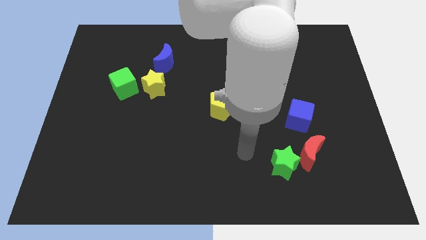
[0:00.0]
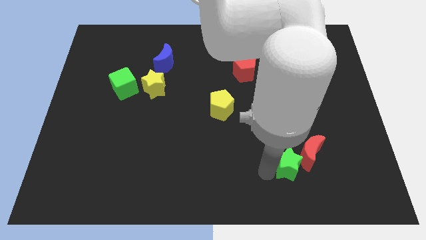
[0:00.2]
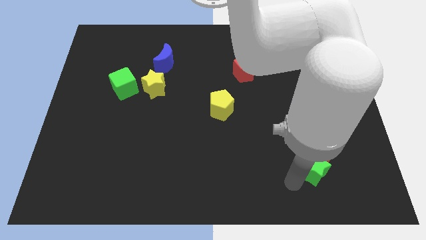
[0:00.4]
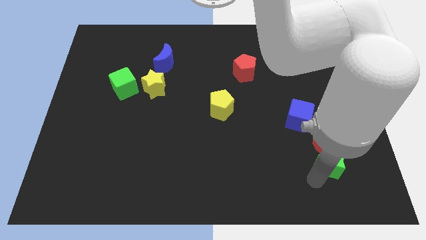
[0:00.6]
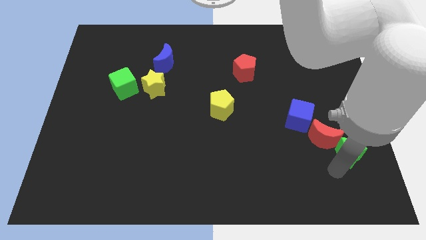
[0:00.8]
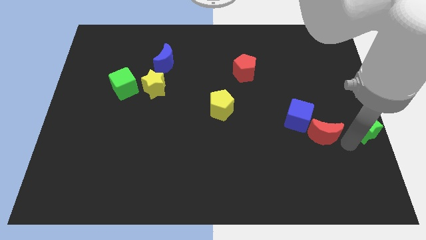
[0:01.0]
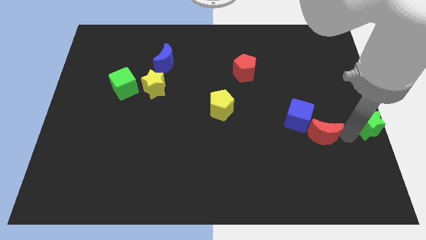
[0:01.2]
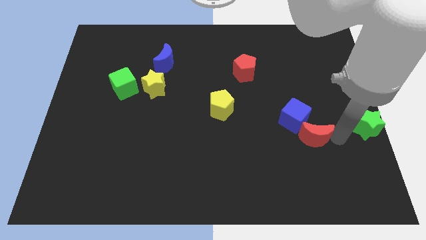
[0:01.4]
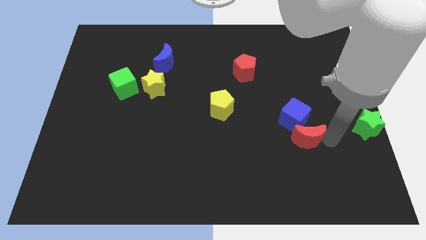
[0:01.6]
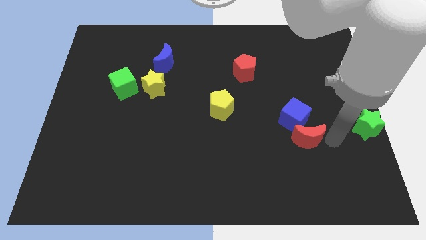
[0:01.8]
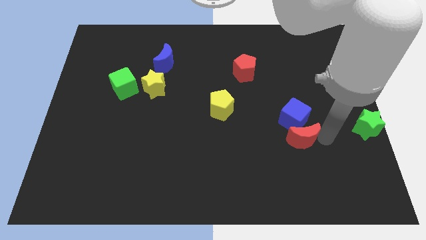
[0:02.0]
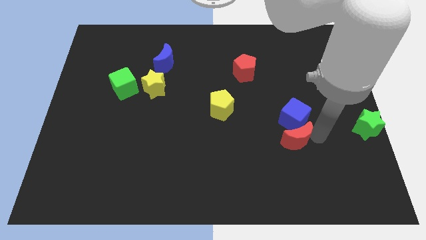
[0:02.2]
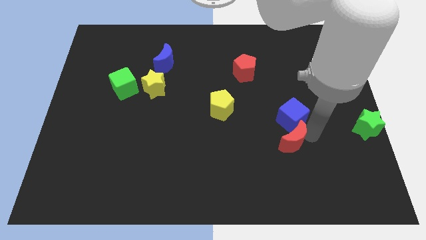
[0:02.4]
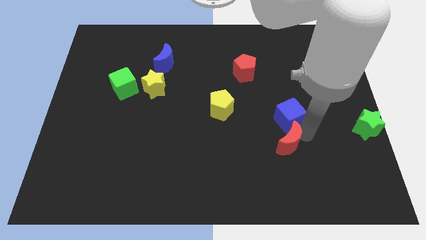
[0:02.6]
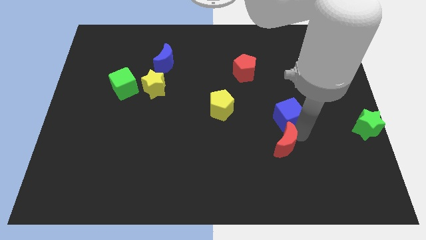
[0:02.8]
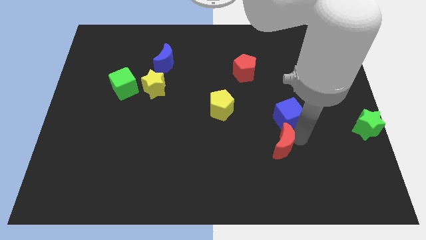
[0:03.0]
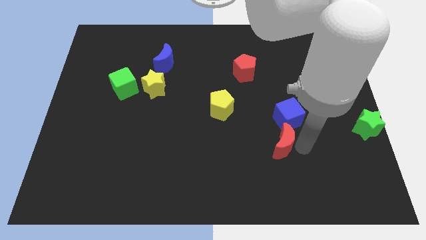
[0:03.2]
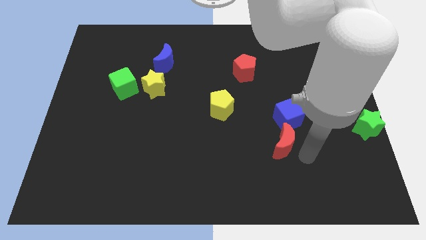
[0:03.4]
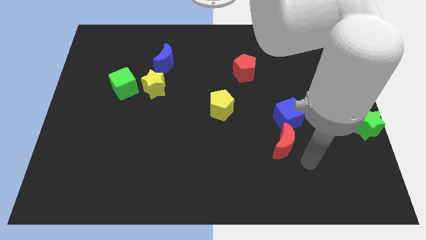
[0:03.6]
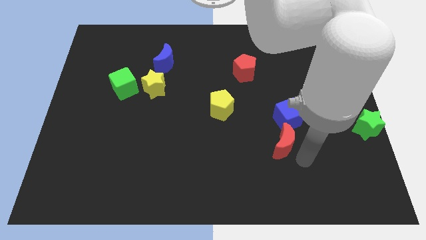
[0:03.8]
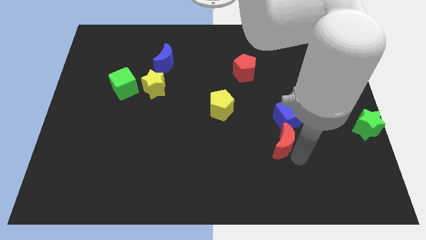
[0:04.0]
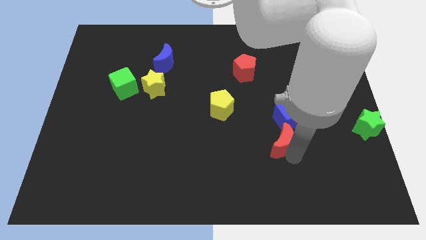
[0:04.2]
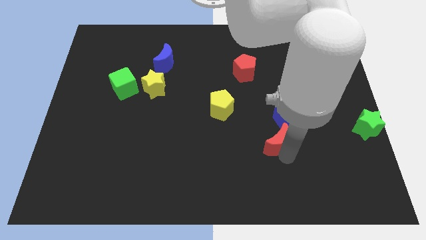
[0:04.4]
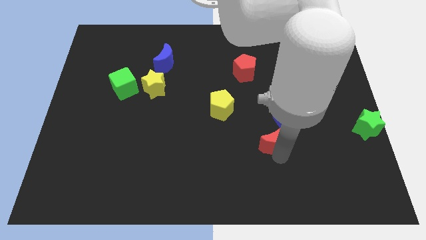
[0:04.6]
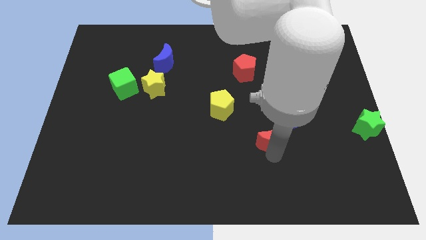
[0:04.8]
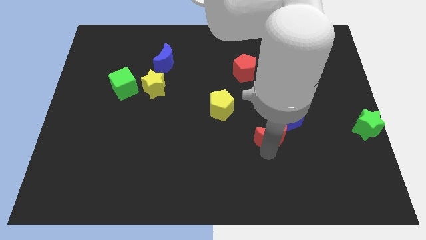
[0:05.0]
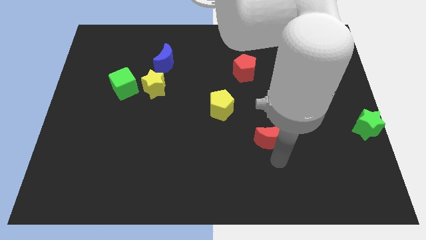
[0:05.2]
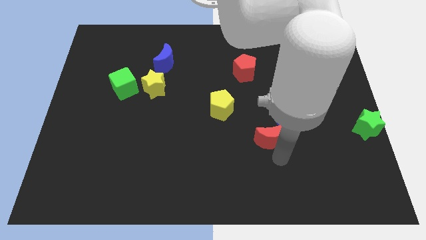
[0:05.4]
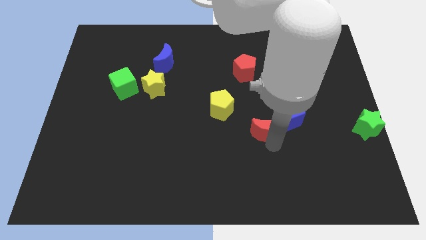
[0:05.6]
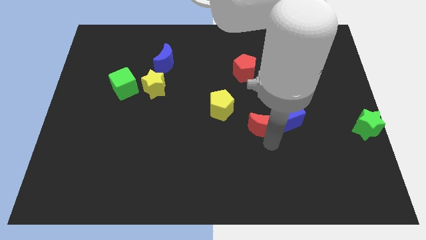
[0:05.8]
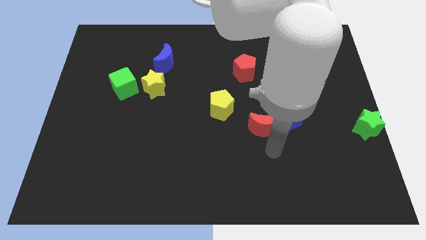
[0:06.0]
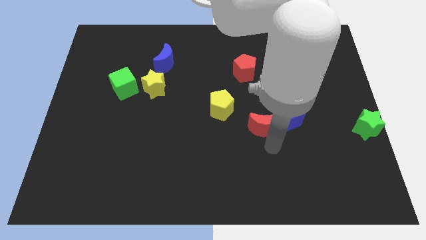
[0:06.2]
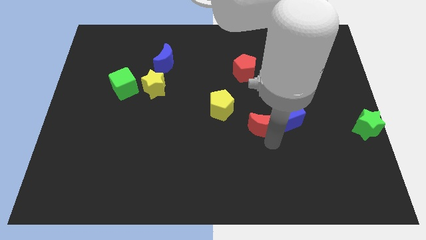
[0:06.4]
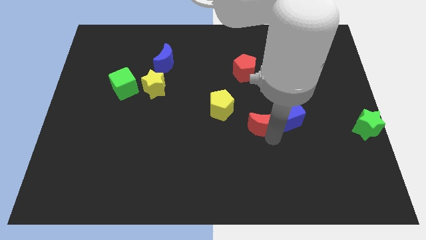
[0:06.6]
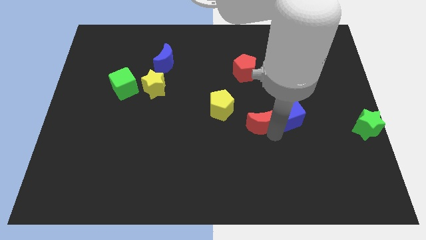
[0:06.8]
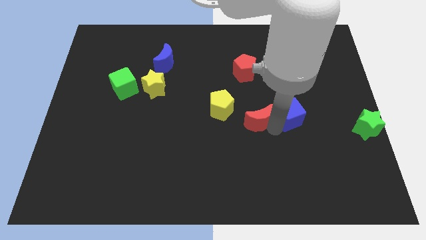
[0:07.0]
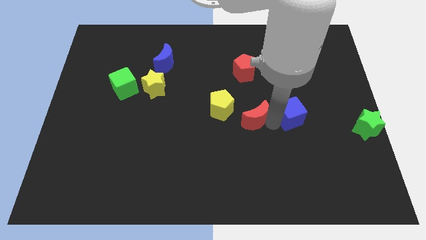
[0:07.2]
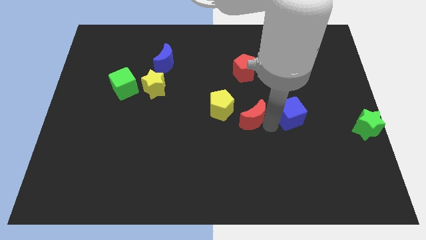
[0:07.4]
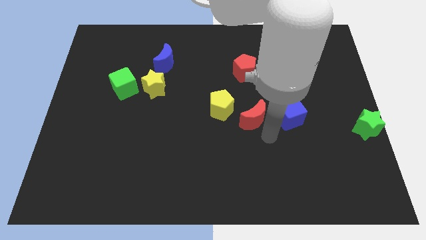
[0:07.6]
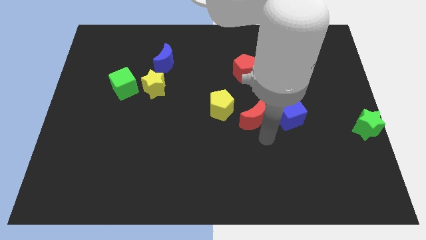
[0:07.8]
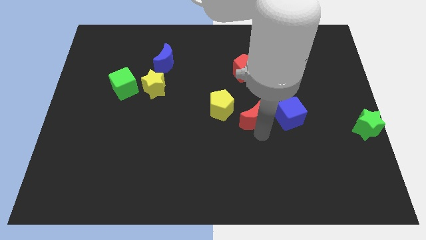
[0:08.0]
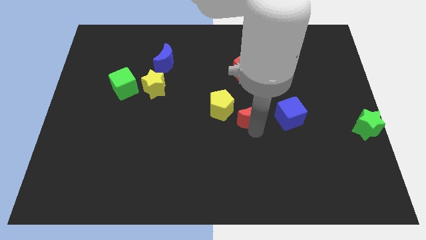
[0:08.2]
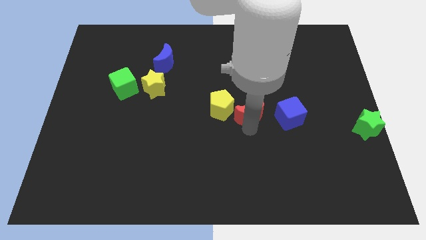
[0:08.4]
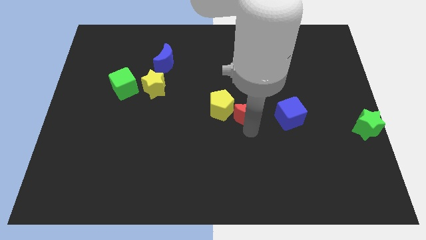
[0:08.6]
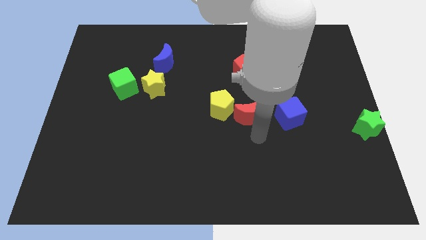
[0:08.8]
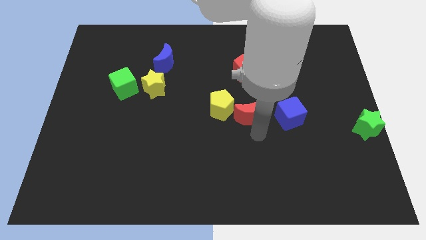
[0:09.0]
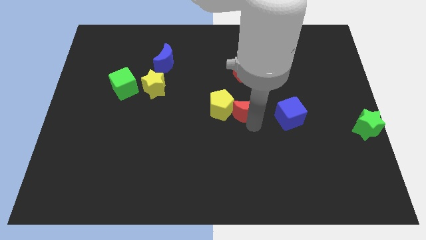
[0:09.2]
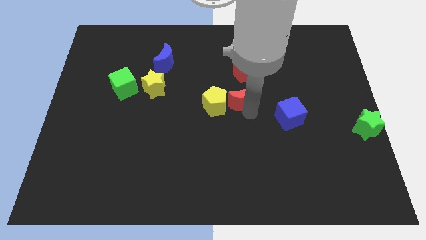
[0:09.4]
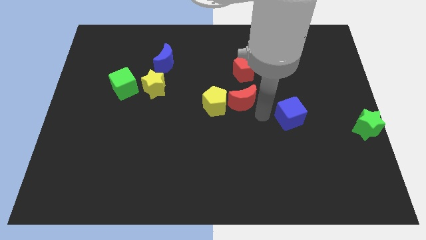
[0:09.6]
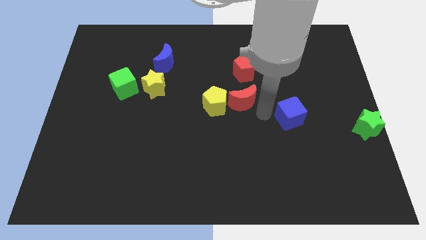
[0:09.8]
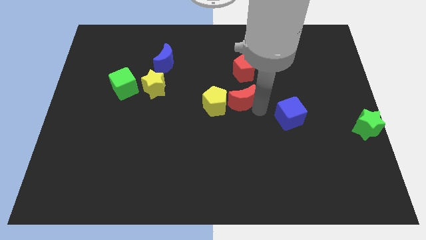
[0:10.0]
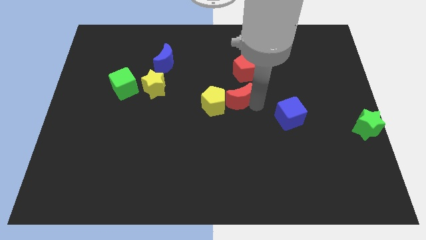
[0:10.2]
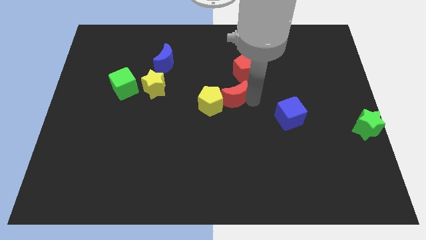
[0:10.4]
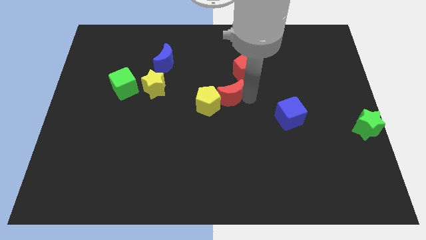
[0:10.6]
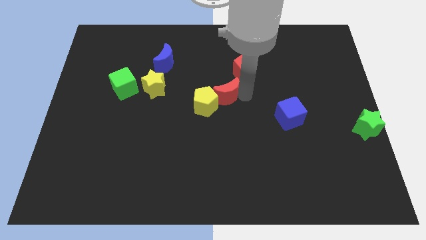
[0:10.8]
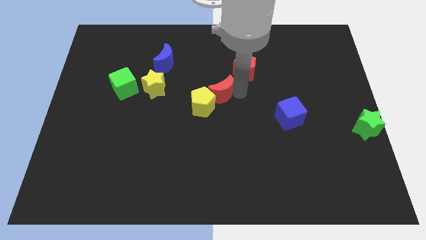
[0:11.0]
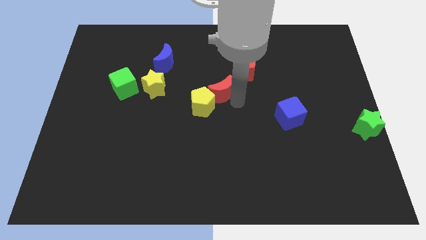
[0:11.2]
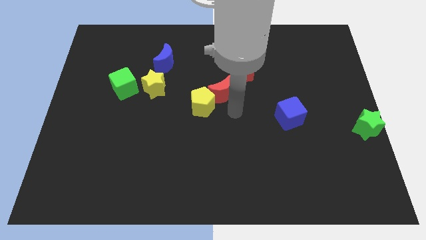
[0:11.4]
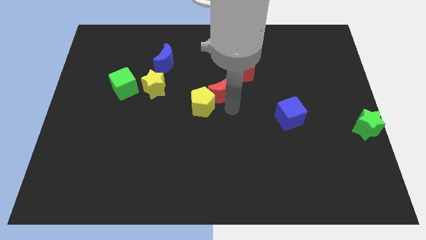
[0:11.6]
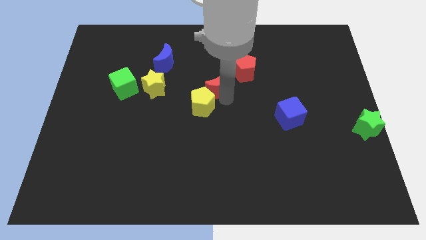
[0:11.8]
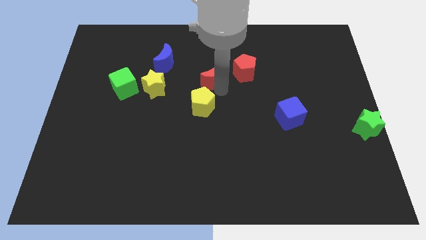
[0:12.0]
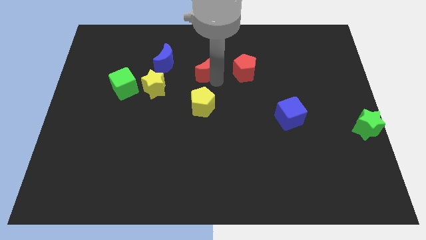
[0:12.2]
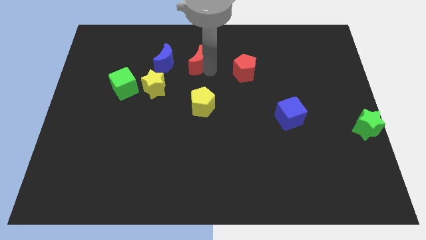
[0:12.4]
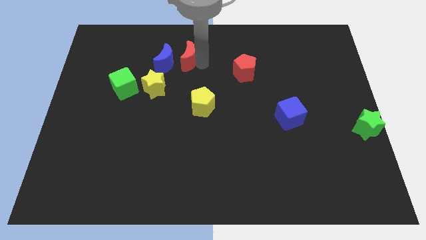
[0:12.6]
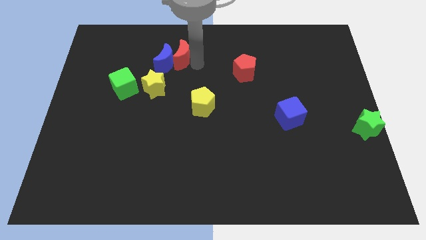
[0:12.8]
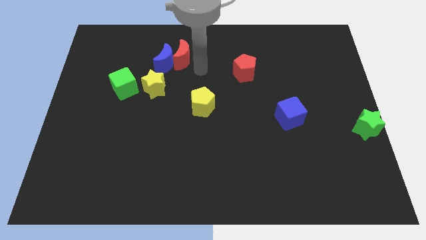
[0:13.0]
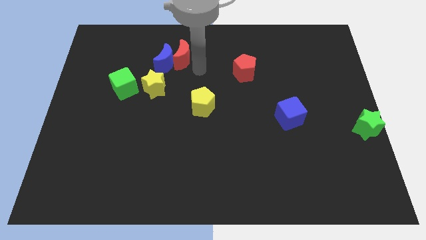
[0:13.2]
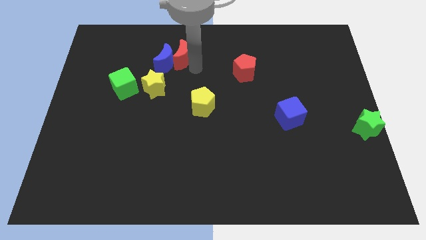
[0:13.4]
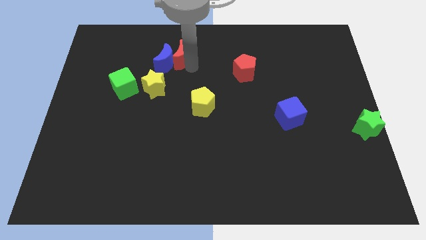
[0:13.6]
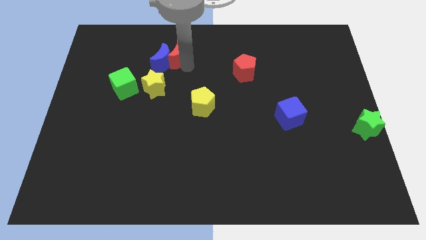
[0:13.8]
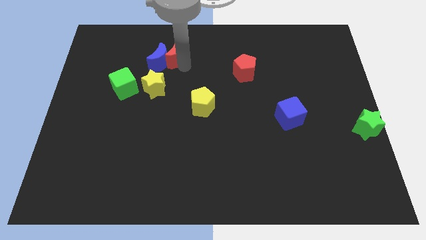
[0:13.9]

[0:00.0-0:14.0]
move the red moon to the top side of the yellow star
